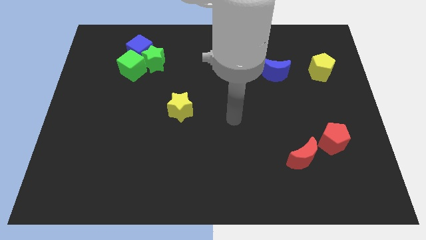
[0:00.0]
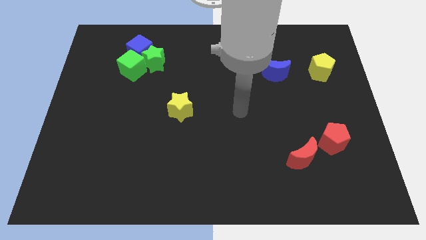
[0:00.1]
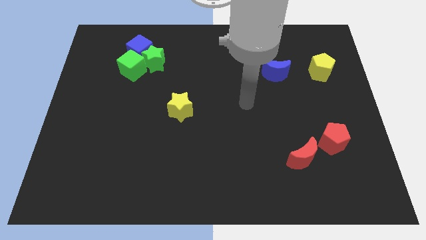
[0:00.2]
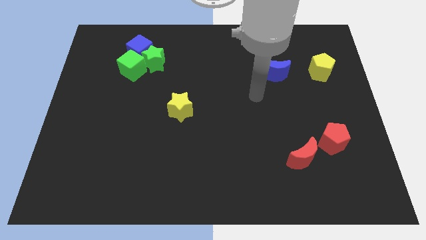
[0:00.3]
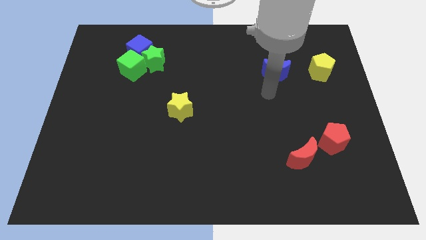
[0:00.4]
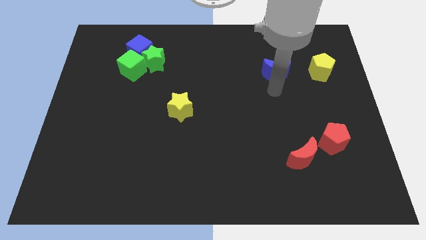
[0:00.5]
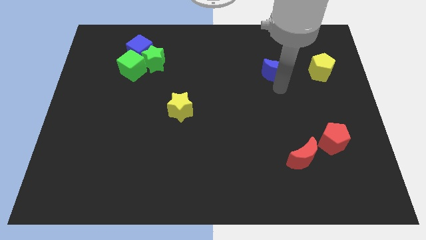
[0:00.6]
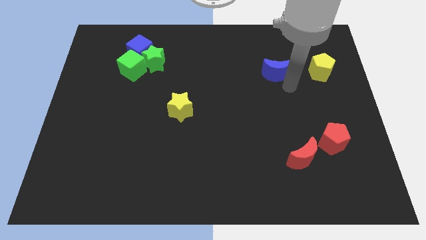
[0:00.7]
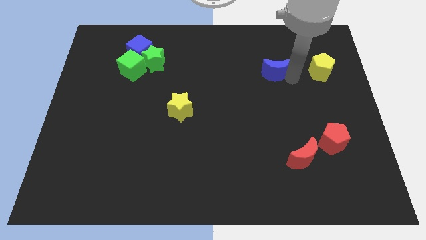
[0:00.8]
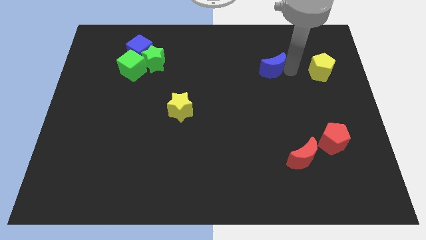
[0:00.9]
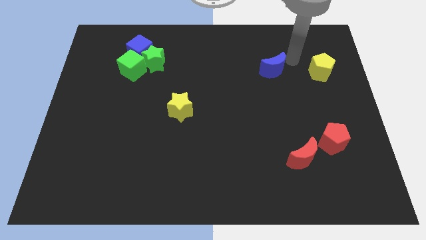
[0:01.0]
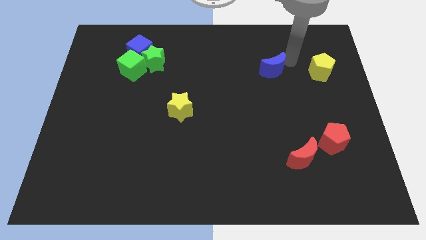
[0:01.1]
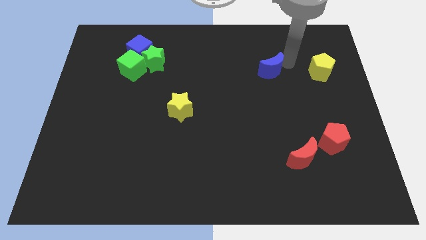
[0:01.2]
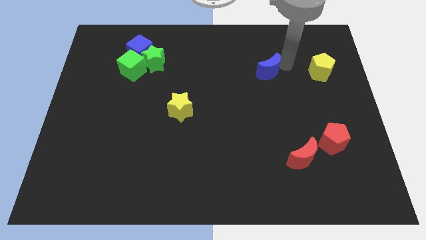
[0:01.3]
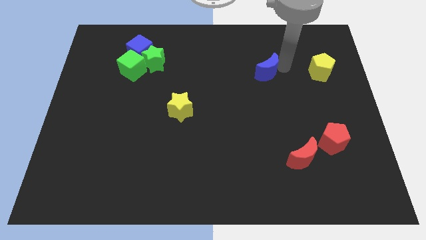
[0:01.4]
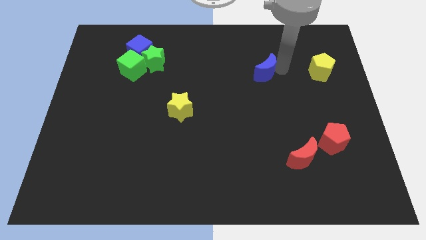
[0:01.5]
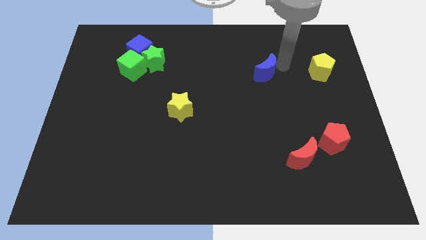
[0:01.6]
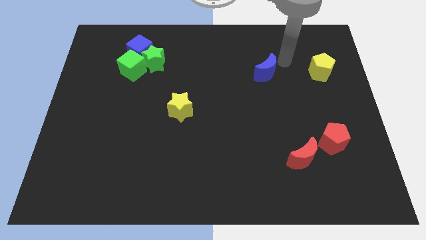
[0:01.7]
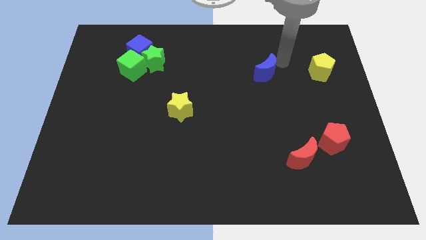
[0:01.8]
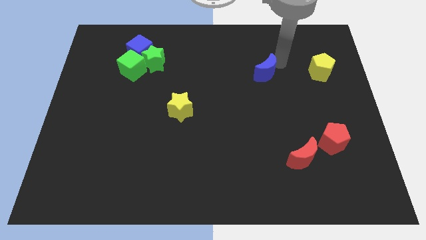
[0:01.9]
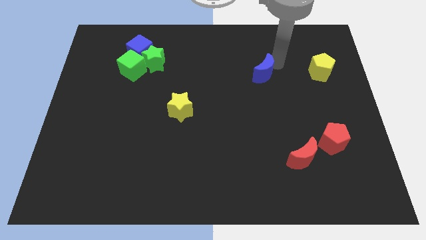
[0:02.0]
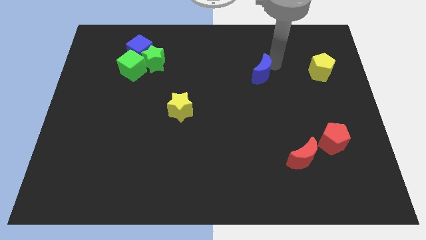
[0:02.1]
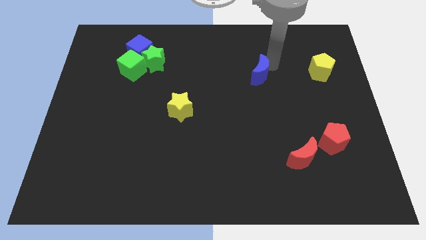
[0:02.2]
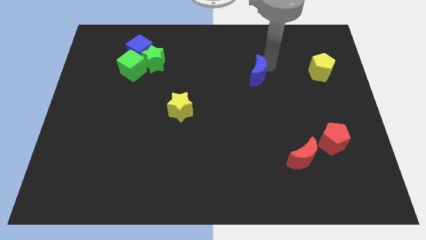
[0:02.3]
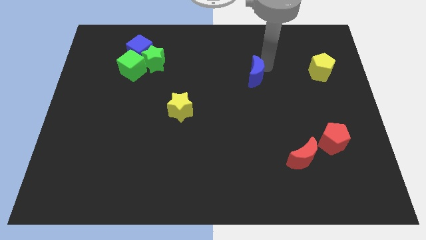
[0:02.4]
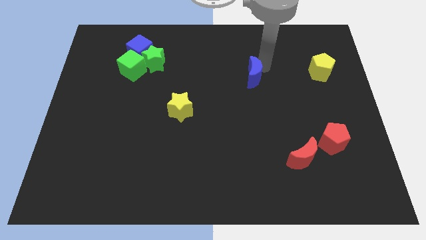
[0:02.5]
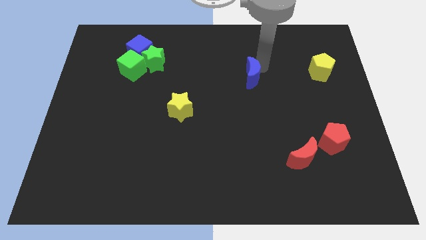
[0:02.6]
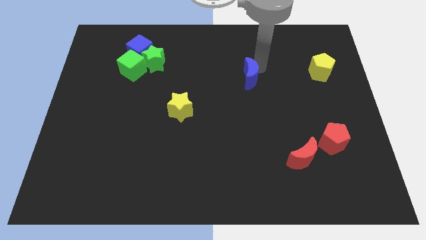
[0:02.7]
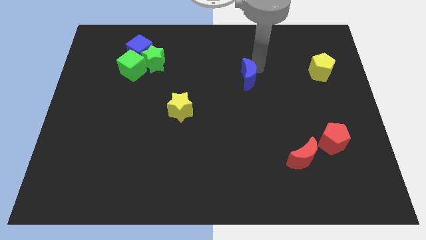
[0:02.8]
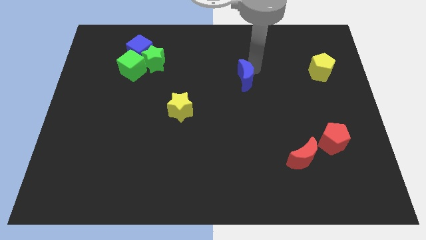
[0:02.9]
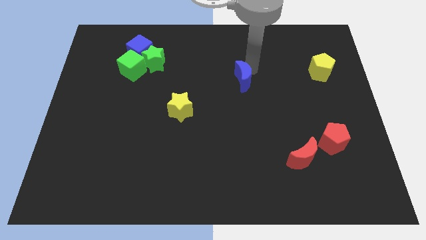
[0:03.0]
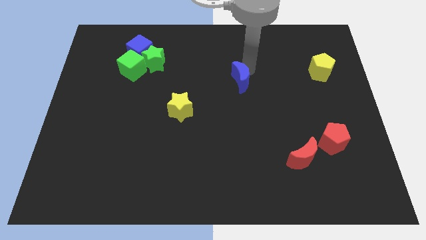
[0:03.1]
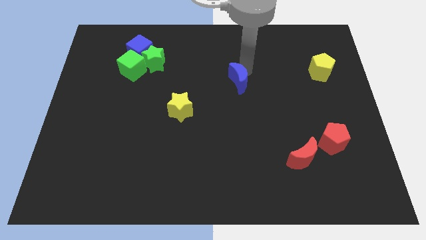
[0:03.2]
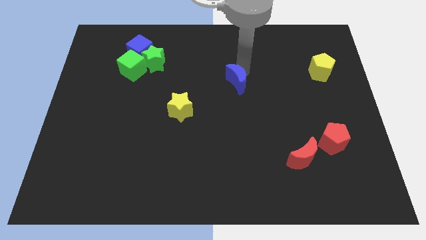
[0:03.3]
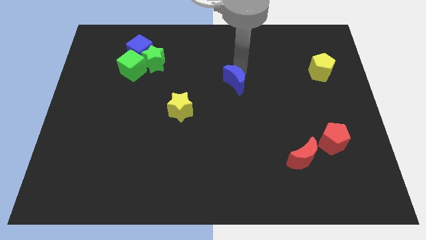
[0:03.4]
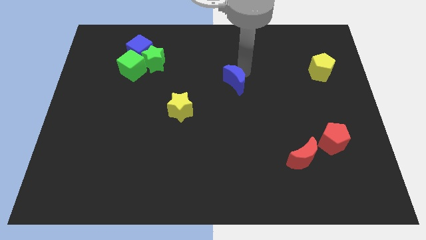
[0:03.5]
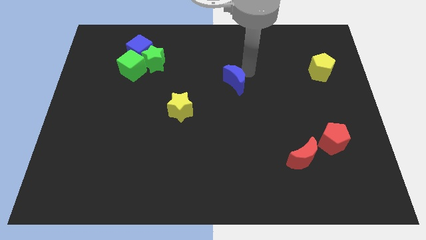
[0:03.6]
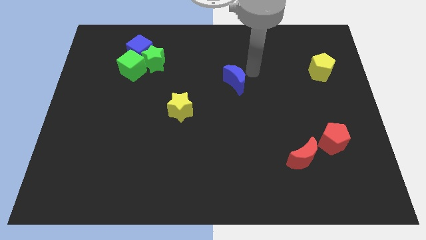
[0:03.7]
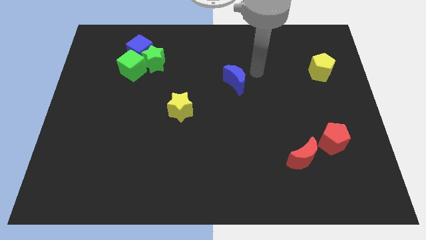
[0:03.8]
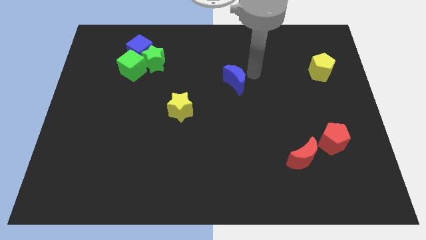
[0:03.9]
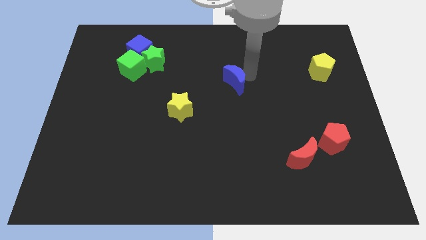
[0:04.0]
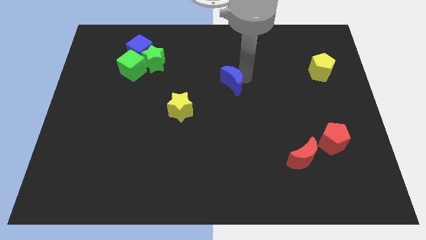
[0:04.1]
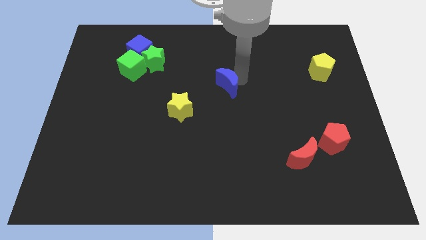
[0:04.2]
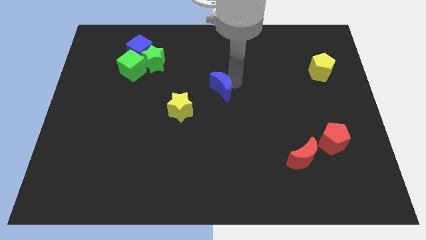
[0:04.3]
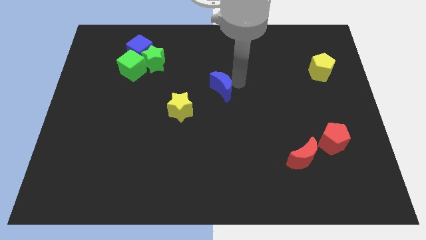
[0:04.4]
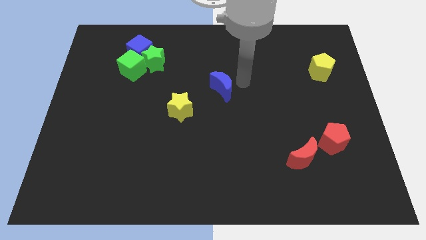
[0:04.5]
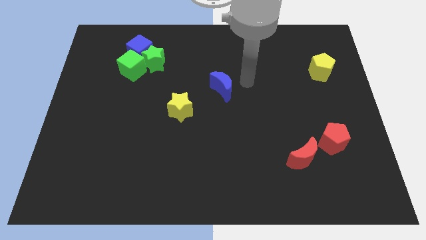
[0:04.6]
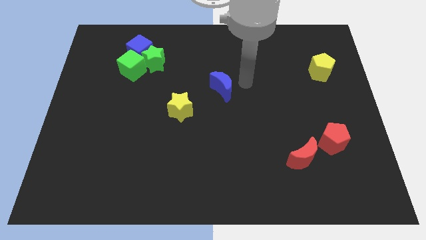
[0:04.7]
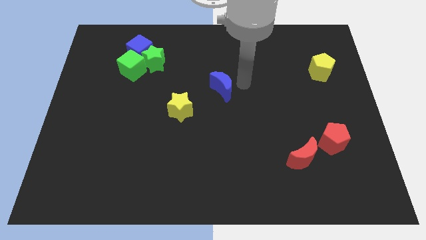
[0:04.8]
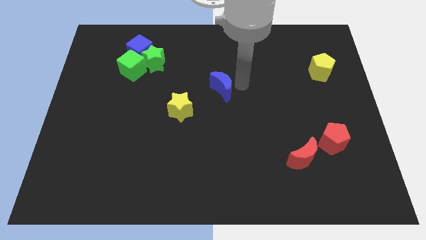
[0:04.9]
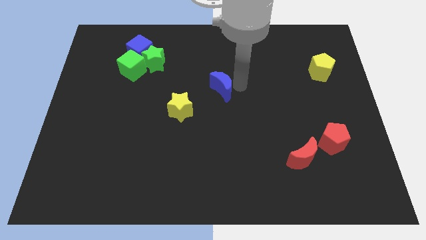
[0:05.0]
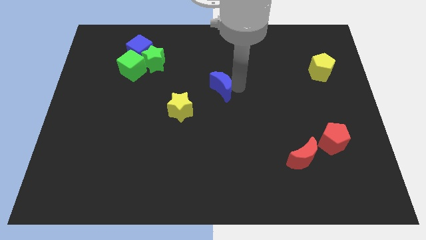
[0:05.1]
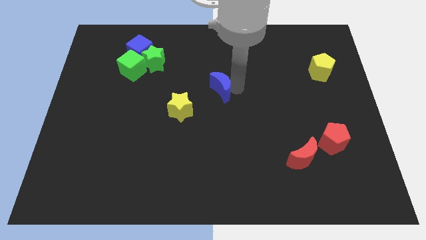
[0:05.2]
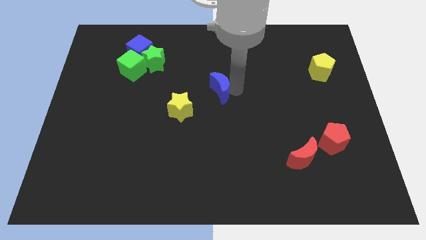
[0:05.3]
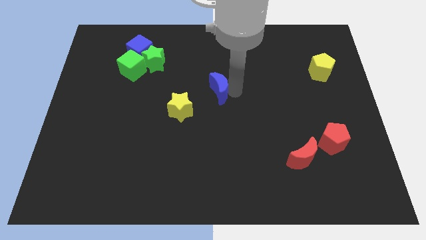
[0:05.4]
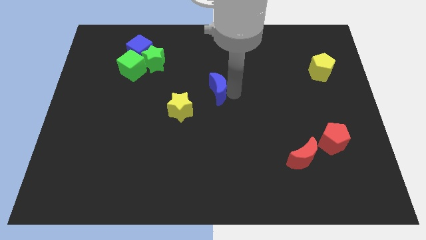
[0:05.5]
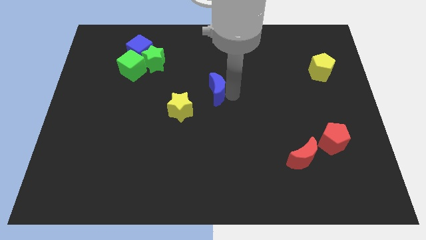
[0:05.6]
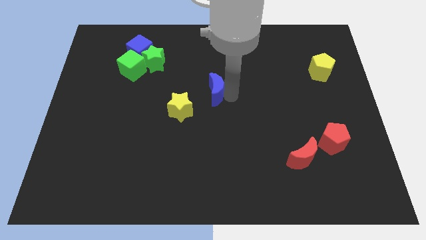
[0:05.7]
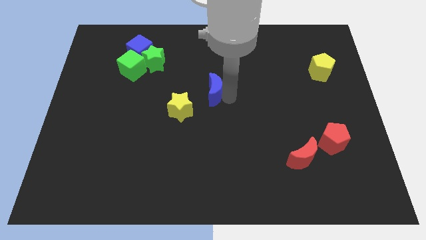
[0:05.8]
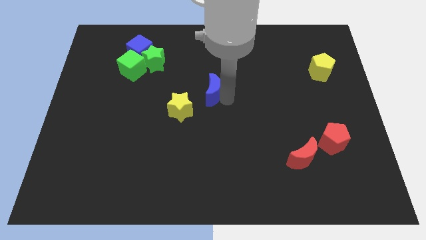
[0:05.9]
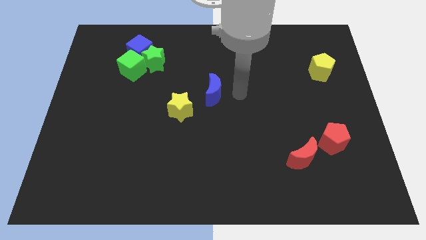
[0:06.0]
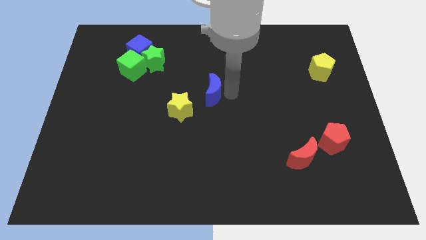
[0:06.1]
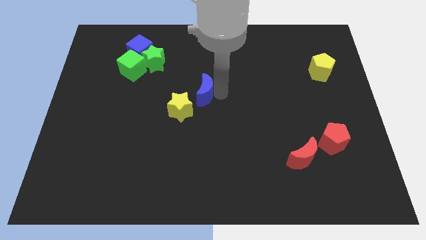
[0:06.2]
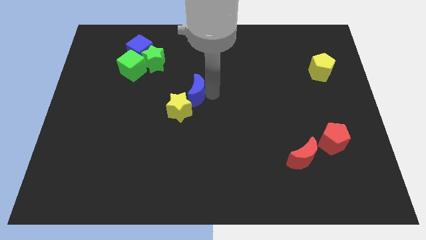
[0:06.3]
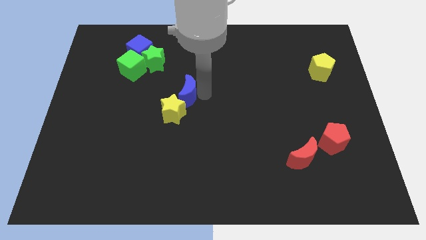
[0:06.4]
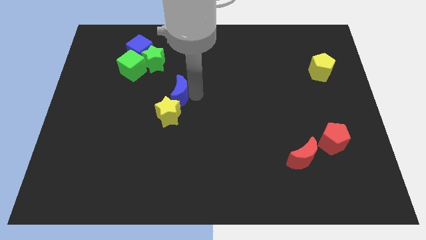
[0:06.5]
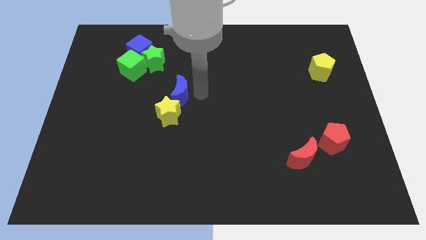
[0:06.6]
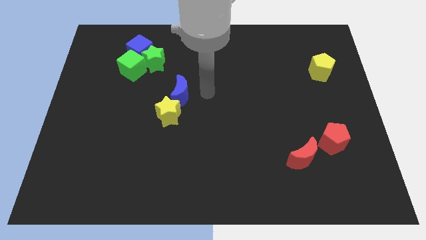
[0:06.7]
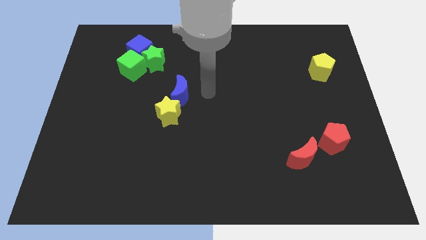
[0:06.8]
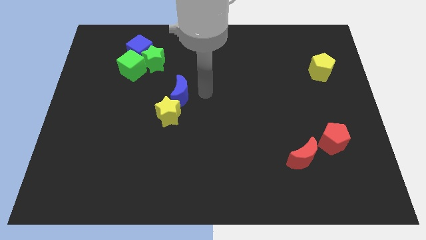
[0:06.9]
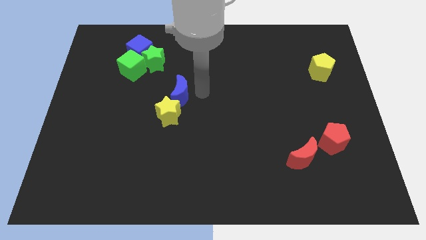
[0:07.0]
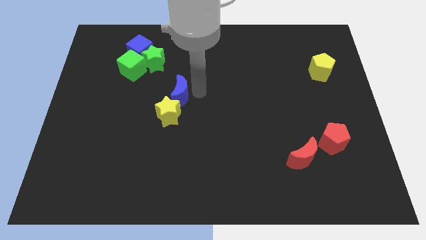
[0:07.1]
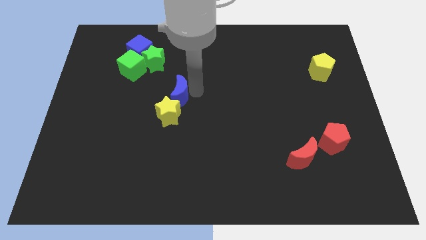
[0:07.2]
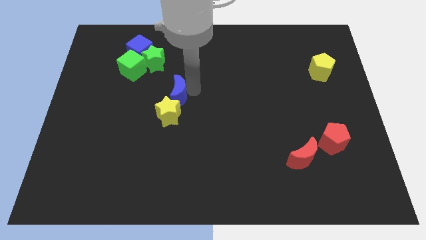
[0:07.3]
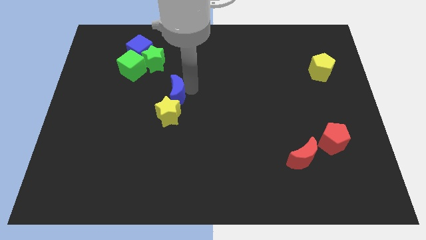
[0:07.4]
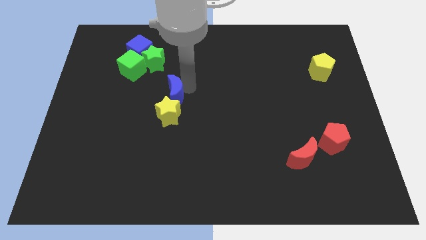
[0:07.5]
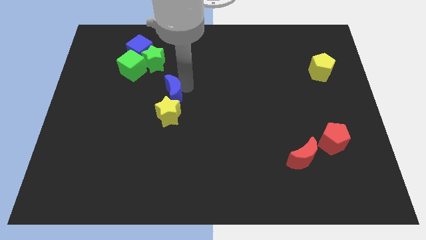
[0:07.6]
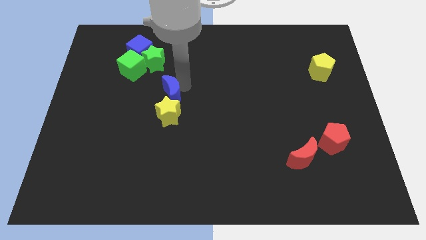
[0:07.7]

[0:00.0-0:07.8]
move the blue moon to the top left of the yellow star

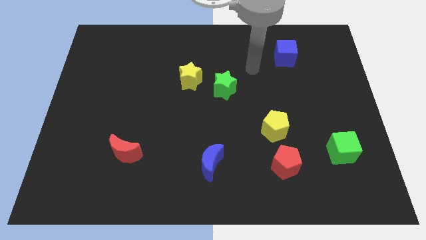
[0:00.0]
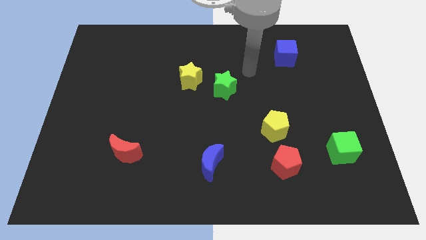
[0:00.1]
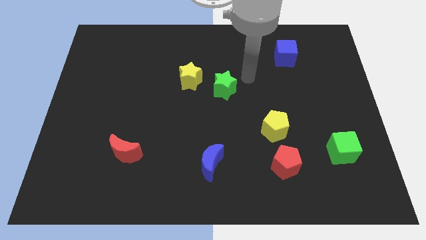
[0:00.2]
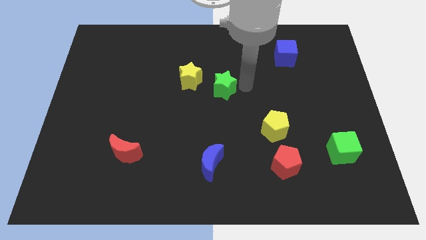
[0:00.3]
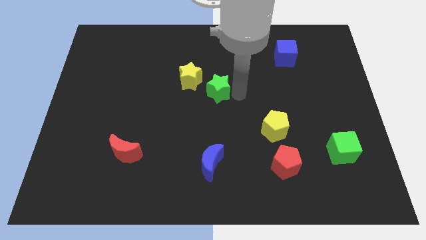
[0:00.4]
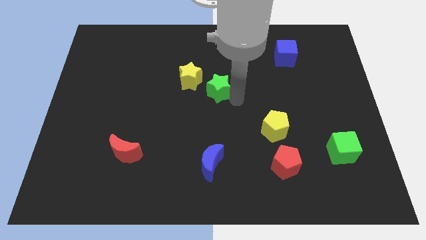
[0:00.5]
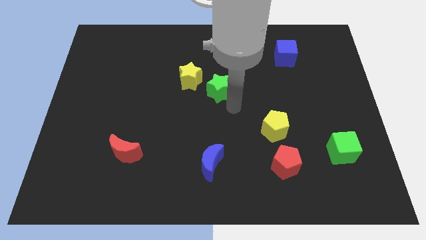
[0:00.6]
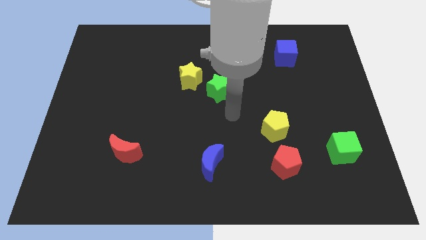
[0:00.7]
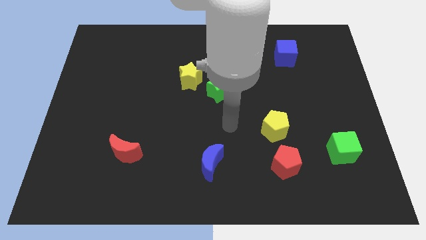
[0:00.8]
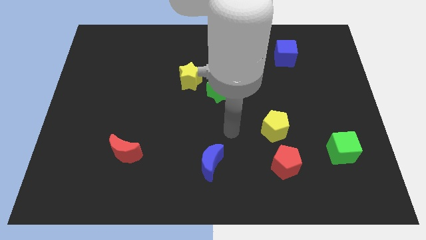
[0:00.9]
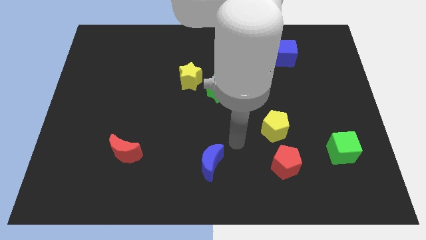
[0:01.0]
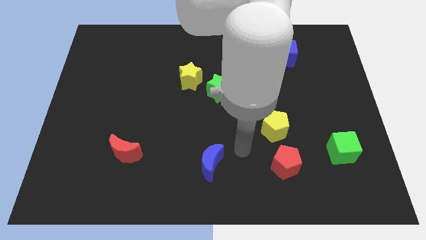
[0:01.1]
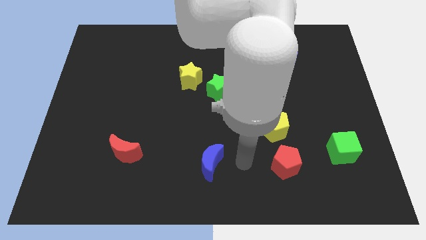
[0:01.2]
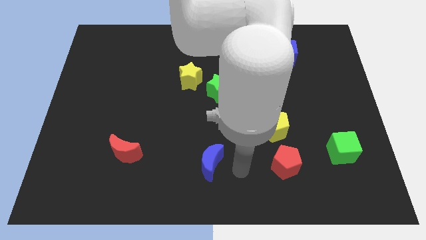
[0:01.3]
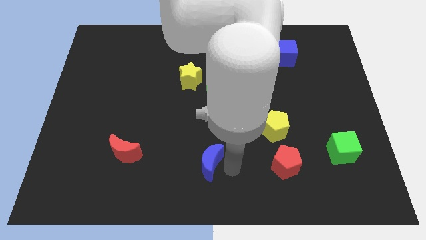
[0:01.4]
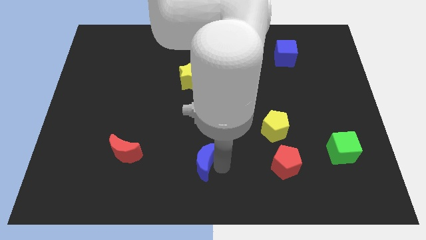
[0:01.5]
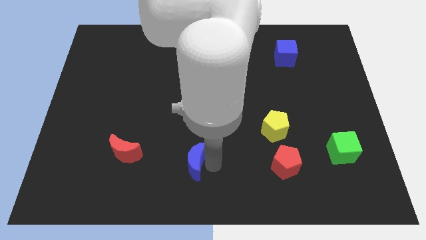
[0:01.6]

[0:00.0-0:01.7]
put the blue moon to the right side of the red moon
